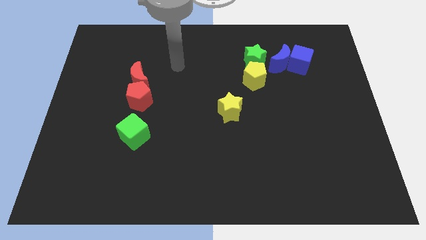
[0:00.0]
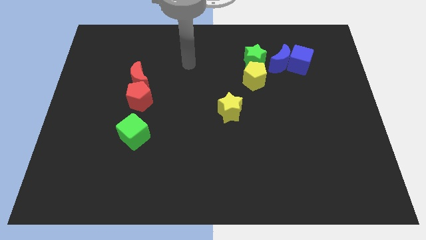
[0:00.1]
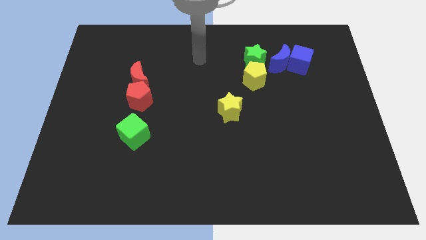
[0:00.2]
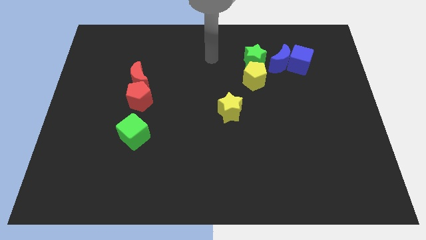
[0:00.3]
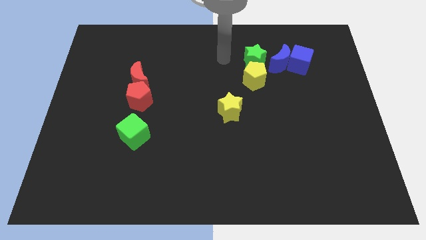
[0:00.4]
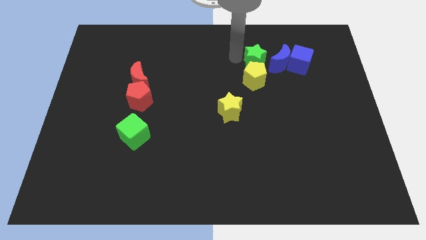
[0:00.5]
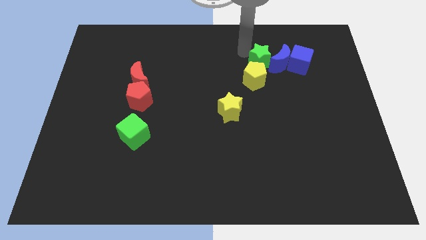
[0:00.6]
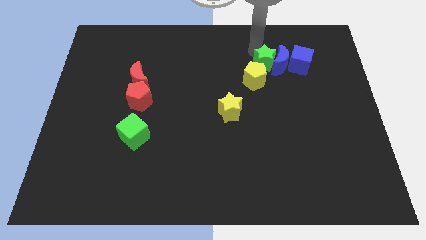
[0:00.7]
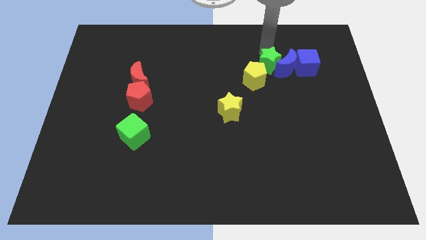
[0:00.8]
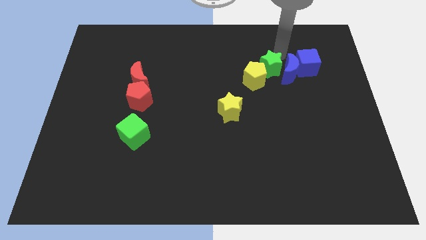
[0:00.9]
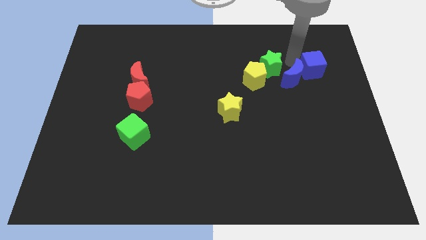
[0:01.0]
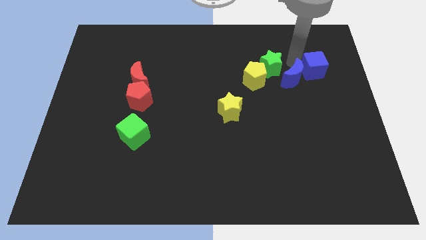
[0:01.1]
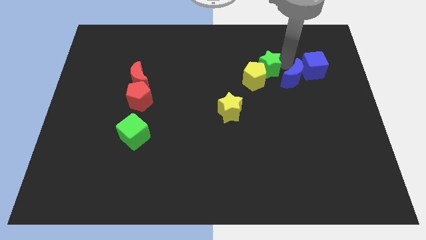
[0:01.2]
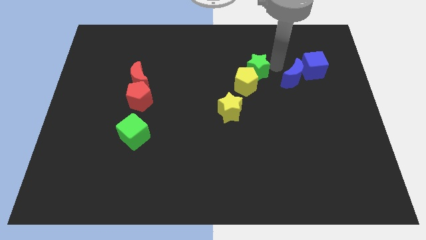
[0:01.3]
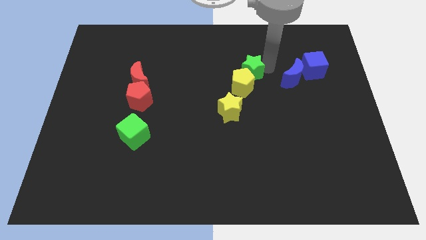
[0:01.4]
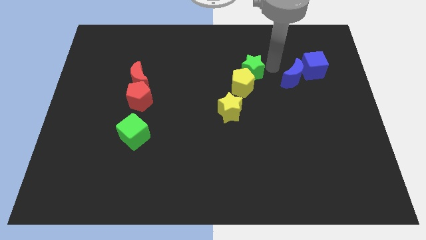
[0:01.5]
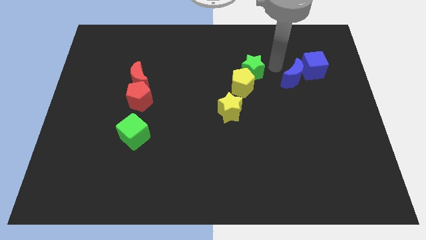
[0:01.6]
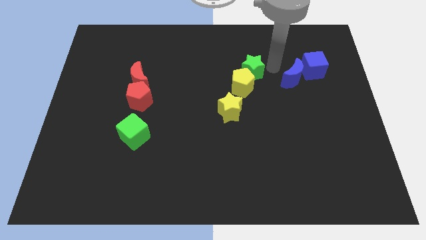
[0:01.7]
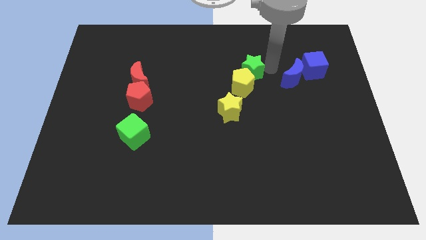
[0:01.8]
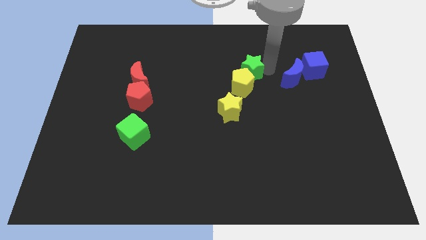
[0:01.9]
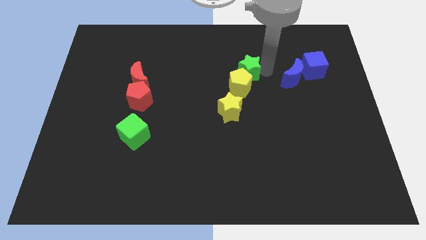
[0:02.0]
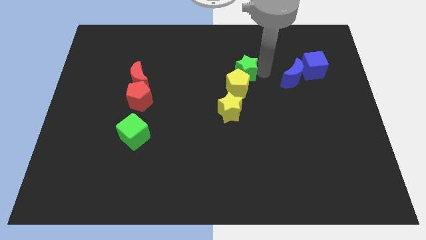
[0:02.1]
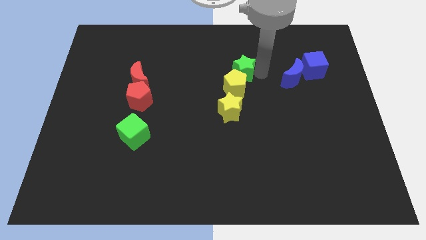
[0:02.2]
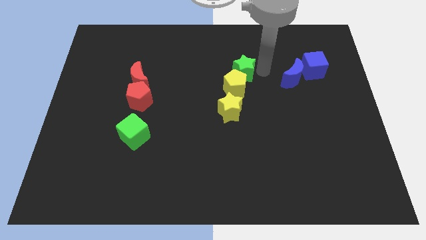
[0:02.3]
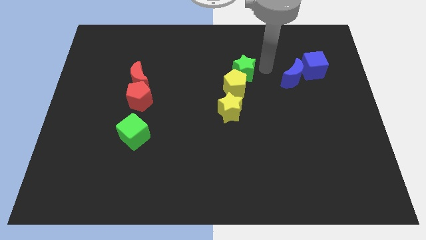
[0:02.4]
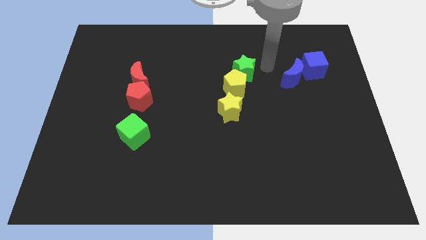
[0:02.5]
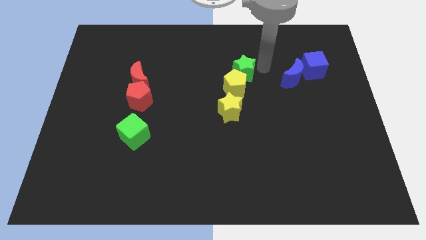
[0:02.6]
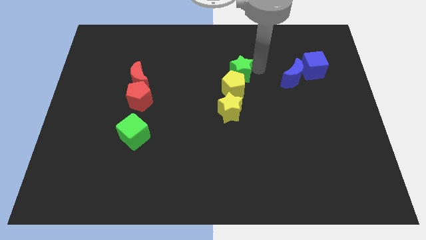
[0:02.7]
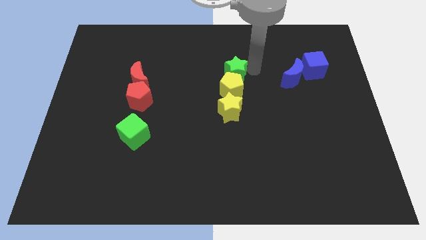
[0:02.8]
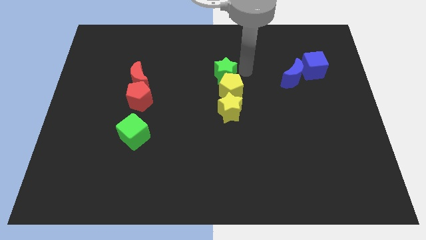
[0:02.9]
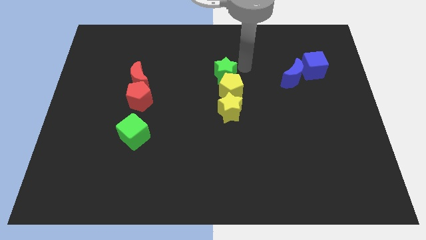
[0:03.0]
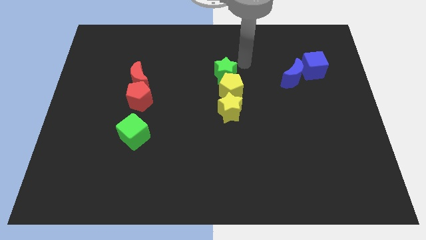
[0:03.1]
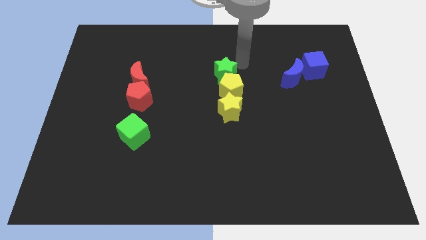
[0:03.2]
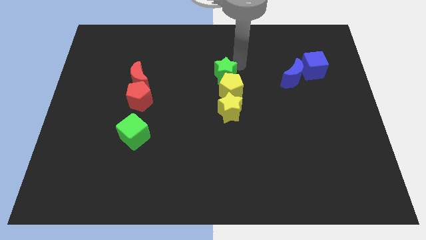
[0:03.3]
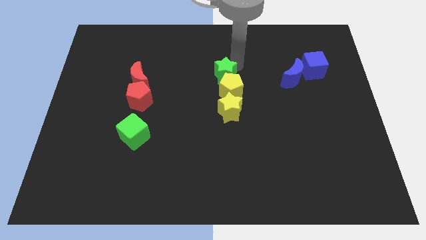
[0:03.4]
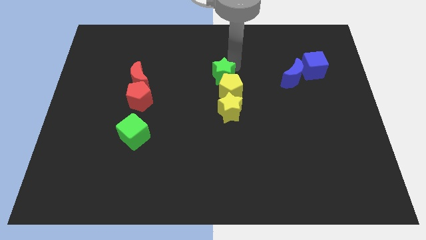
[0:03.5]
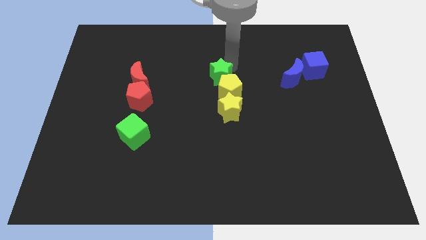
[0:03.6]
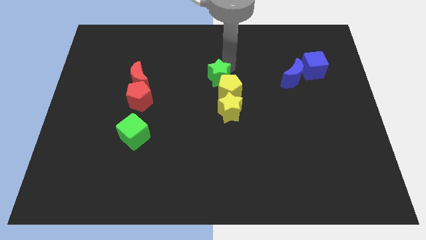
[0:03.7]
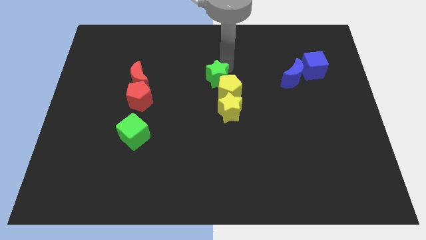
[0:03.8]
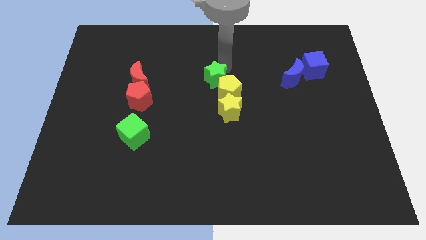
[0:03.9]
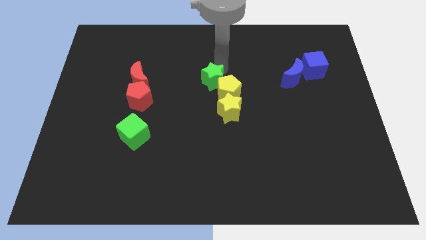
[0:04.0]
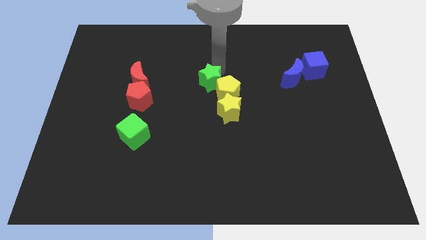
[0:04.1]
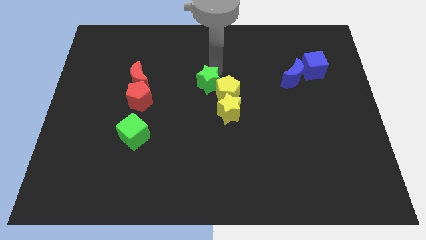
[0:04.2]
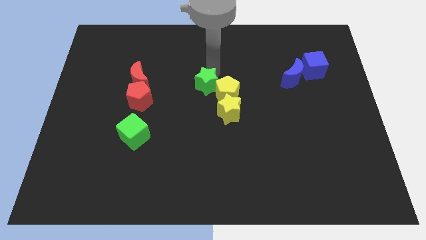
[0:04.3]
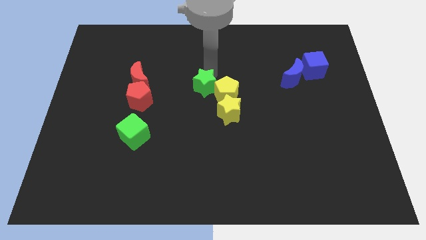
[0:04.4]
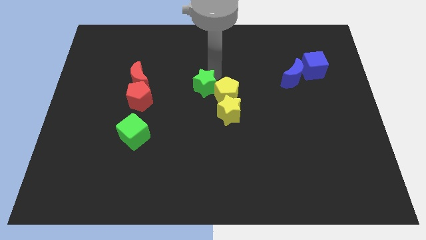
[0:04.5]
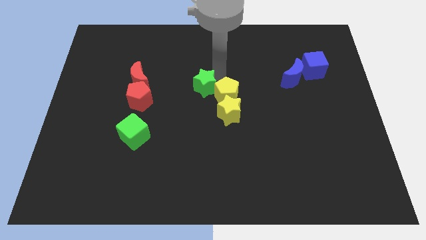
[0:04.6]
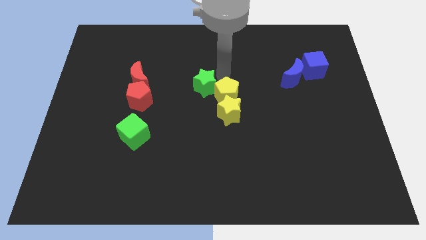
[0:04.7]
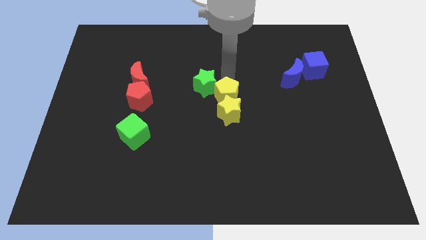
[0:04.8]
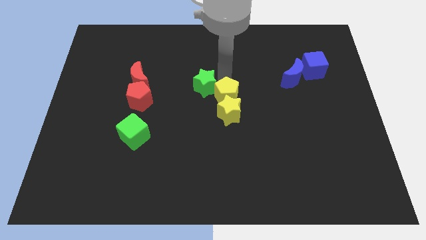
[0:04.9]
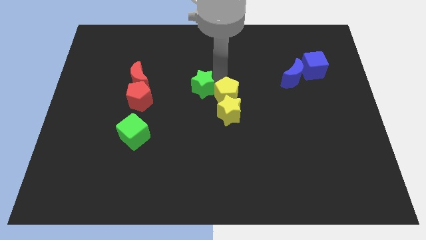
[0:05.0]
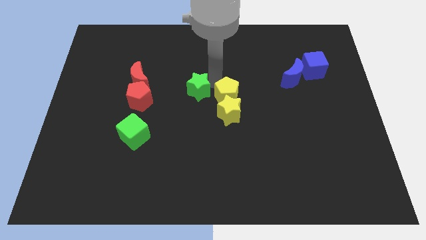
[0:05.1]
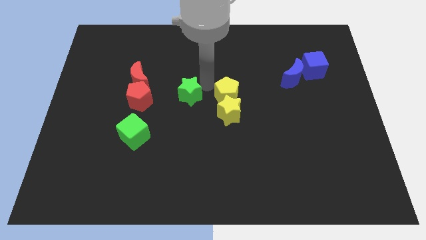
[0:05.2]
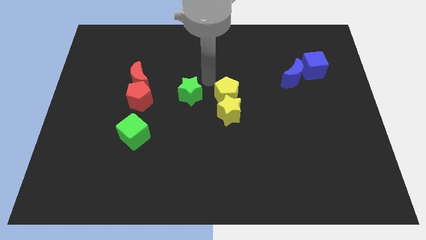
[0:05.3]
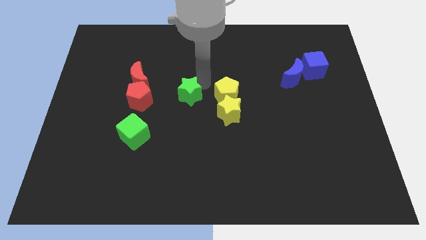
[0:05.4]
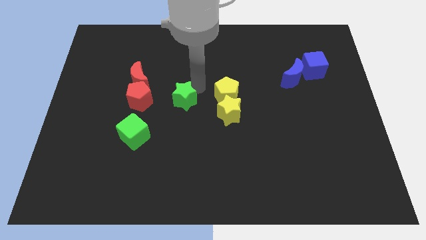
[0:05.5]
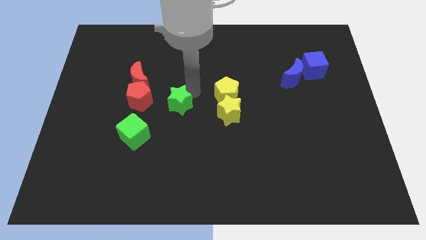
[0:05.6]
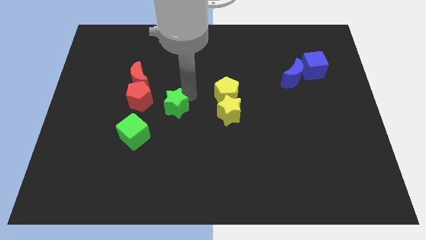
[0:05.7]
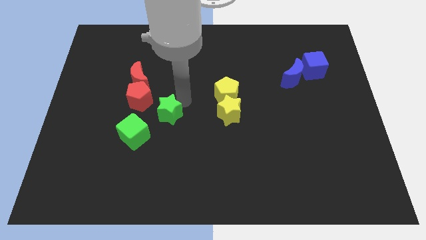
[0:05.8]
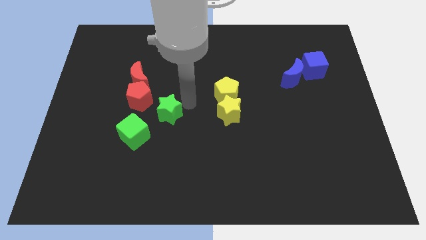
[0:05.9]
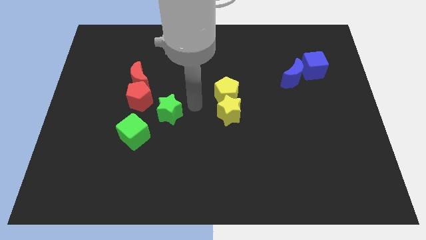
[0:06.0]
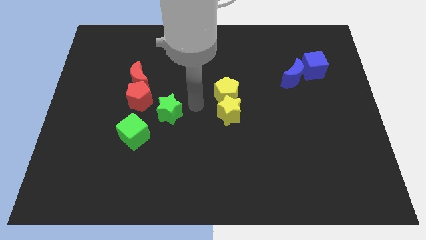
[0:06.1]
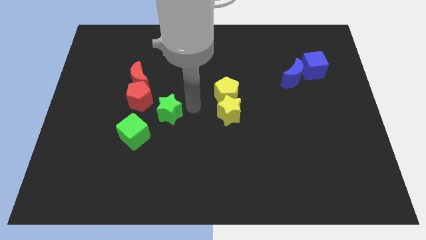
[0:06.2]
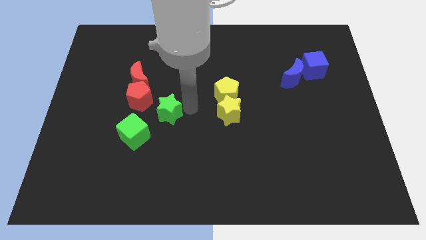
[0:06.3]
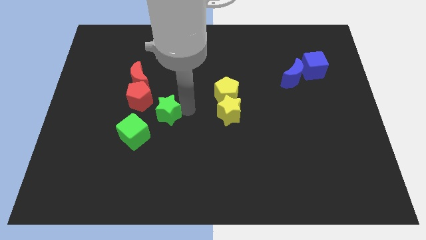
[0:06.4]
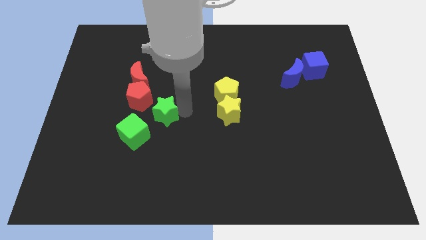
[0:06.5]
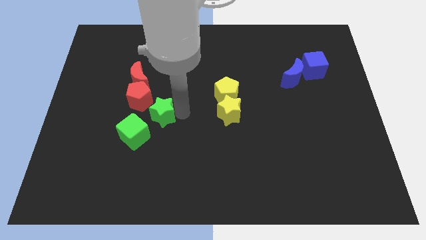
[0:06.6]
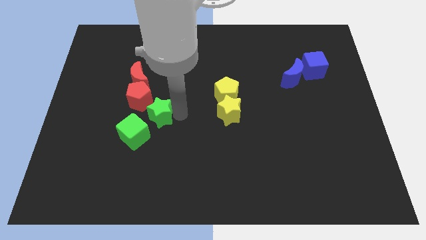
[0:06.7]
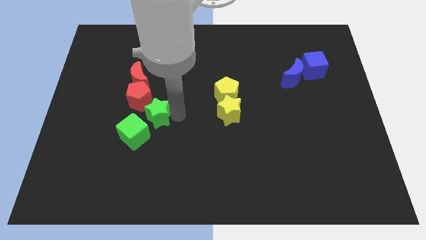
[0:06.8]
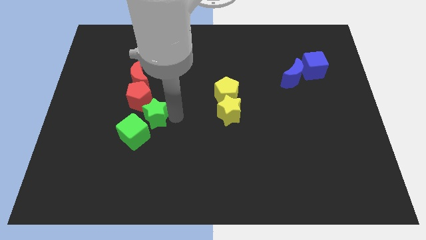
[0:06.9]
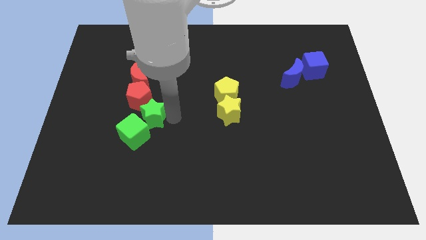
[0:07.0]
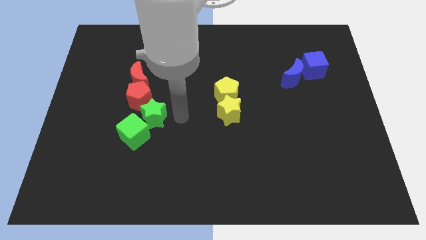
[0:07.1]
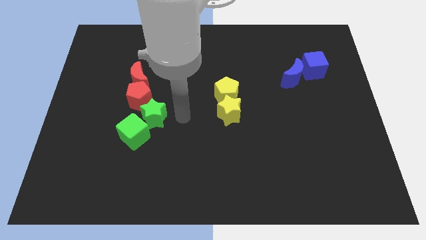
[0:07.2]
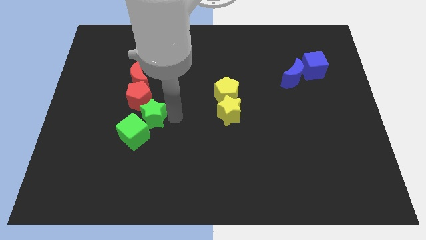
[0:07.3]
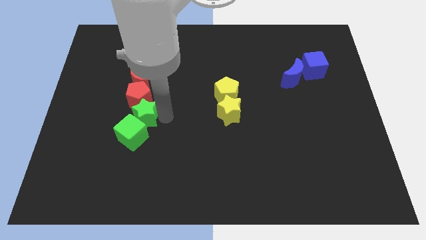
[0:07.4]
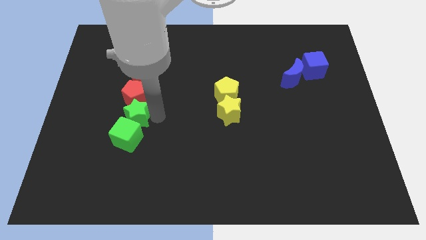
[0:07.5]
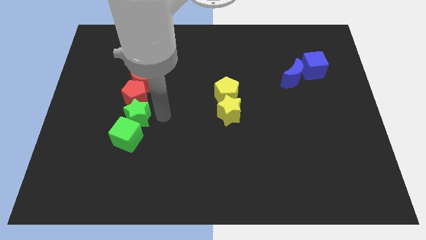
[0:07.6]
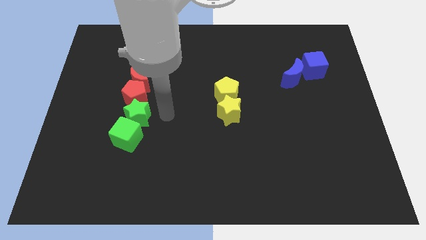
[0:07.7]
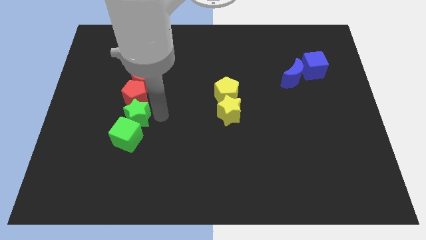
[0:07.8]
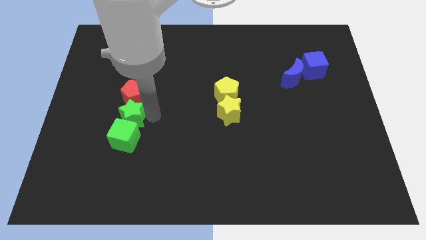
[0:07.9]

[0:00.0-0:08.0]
put the green star to the top left side of the green cube
